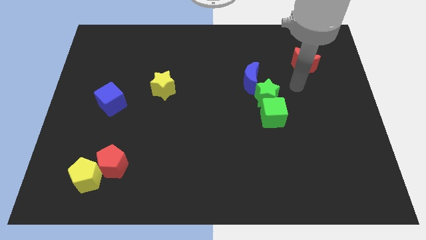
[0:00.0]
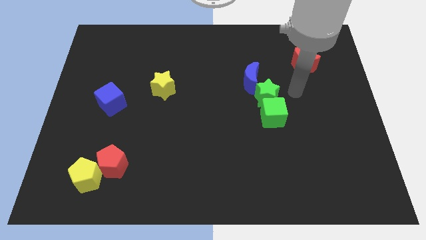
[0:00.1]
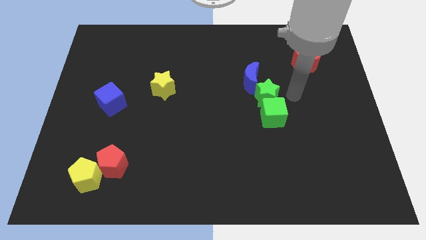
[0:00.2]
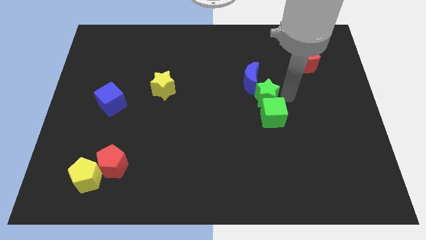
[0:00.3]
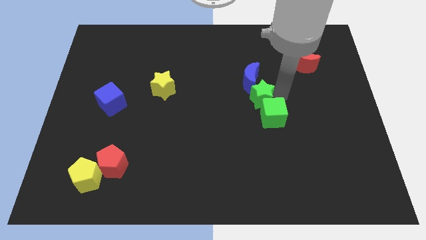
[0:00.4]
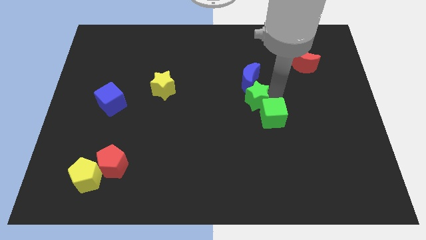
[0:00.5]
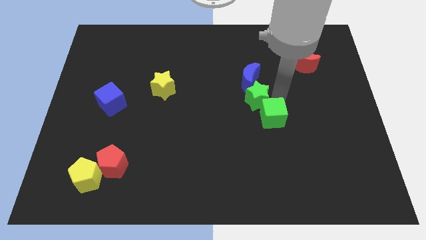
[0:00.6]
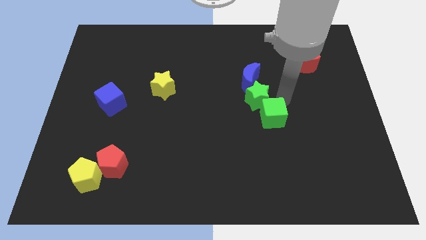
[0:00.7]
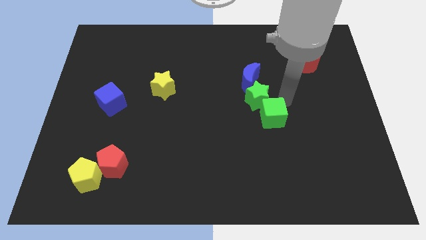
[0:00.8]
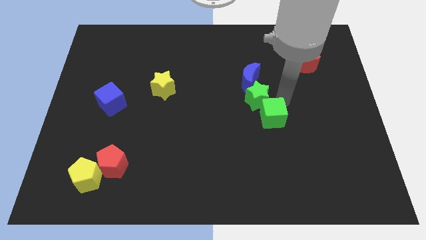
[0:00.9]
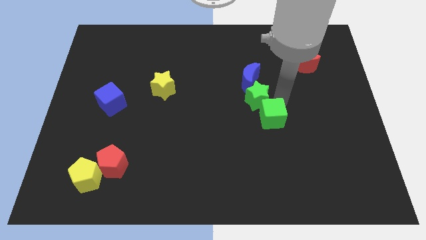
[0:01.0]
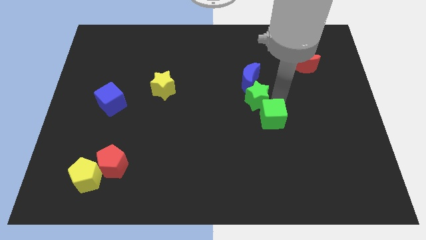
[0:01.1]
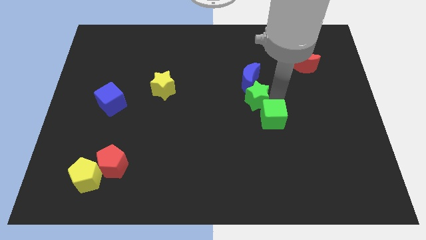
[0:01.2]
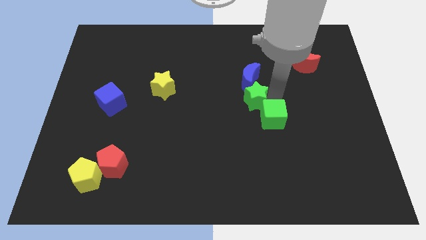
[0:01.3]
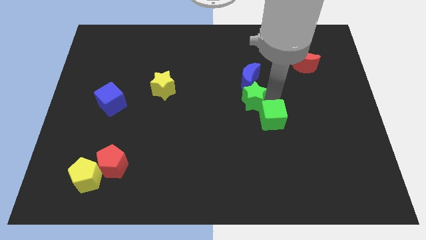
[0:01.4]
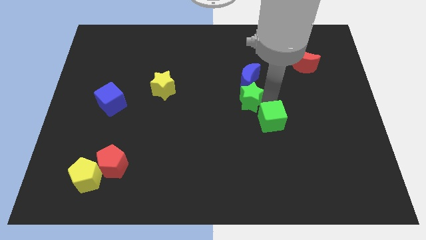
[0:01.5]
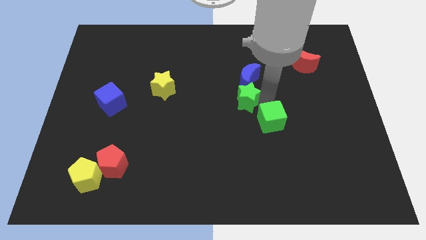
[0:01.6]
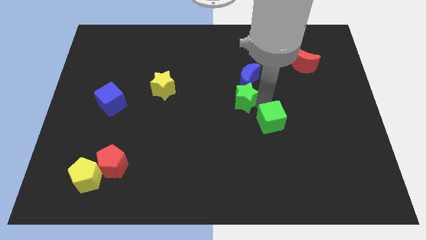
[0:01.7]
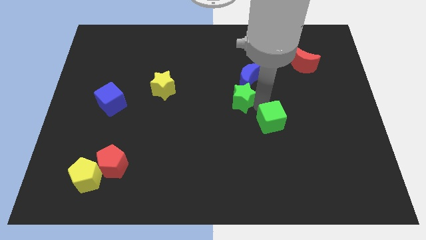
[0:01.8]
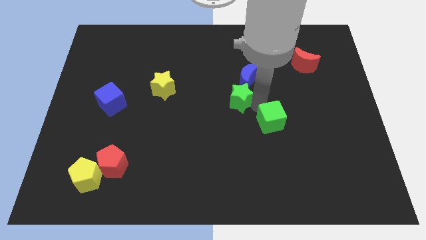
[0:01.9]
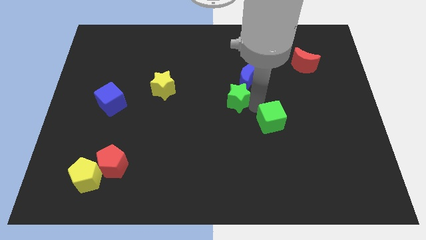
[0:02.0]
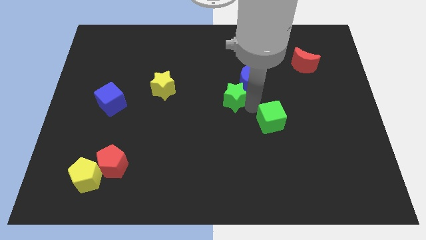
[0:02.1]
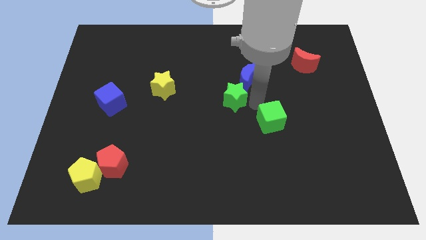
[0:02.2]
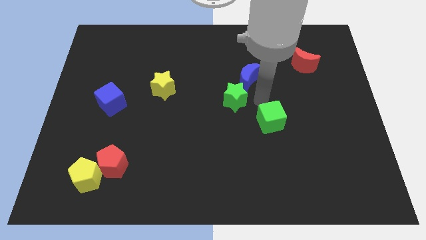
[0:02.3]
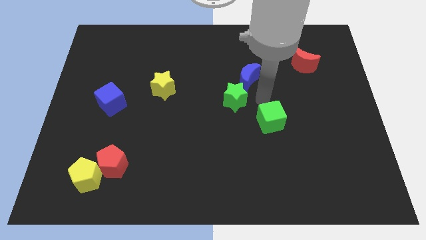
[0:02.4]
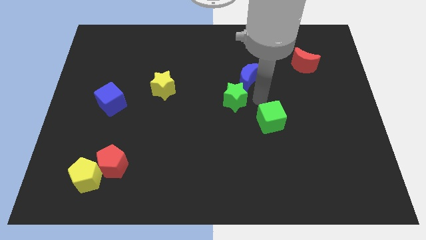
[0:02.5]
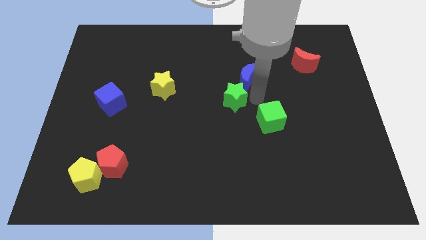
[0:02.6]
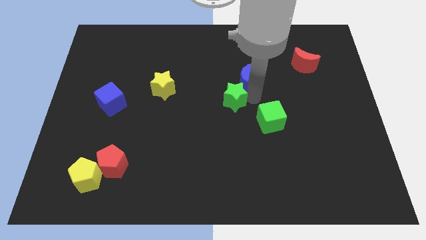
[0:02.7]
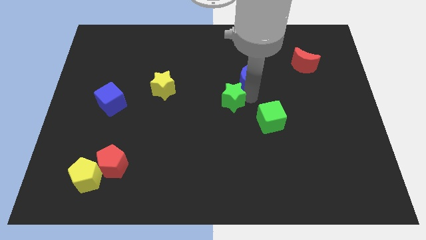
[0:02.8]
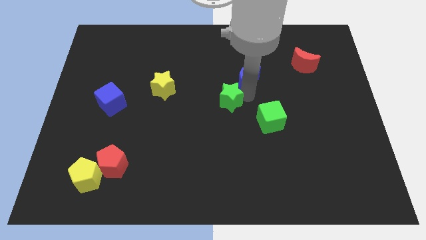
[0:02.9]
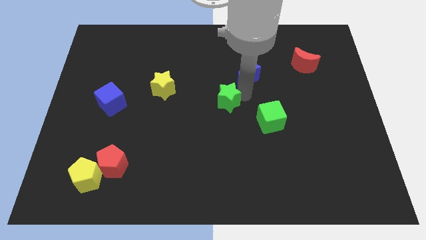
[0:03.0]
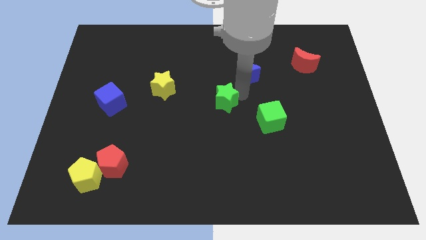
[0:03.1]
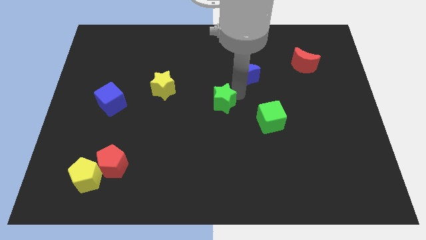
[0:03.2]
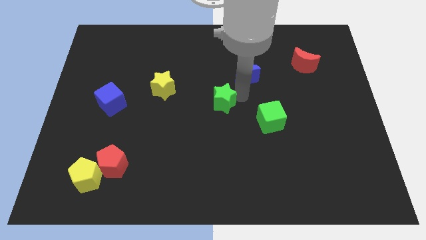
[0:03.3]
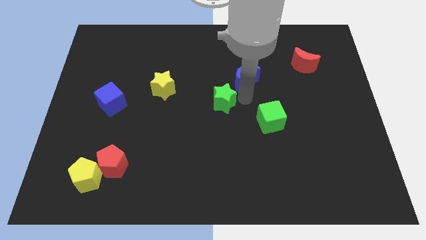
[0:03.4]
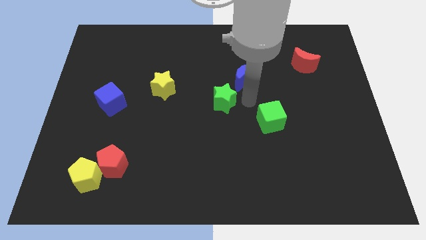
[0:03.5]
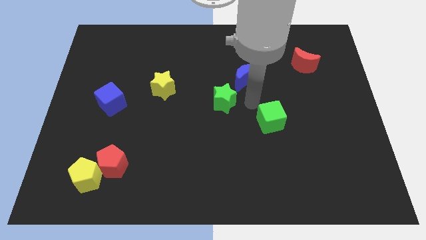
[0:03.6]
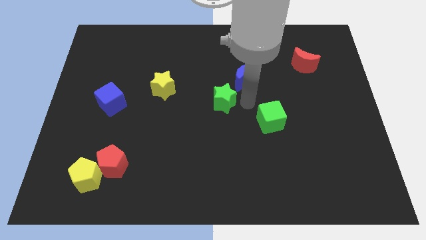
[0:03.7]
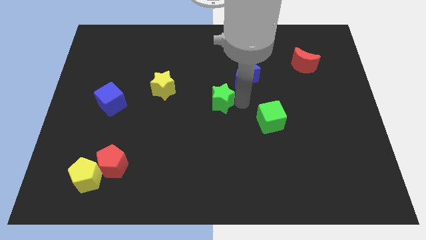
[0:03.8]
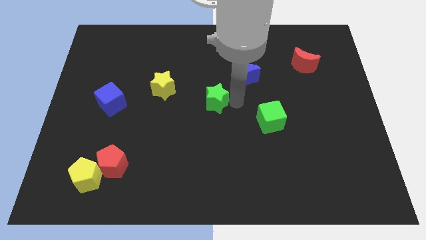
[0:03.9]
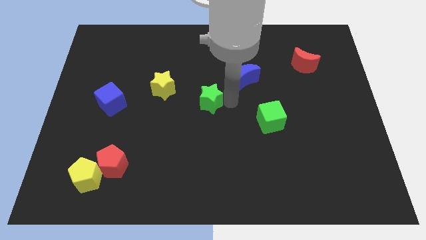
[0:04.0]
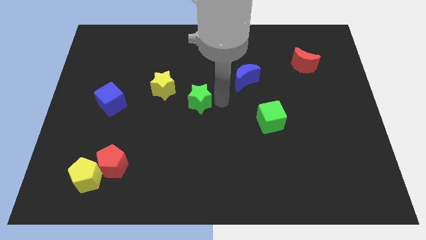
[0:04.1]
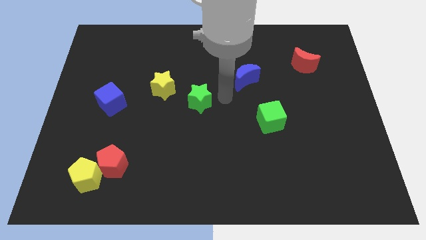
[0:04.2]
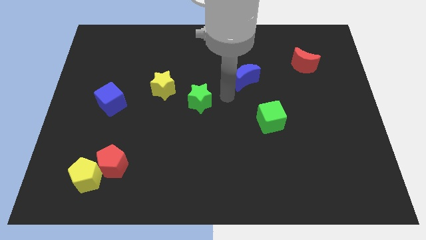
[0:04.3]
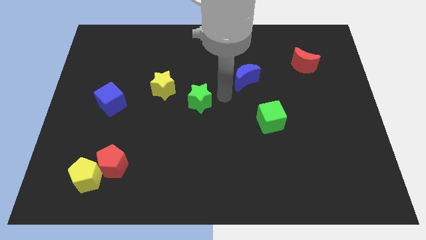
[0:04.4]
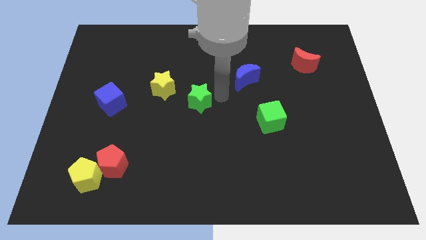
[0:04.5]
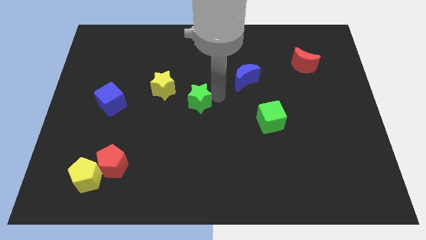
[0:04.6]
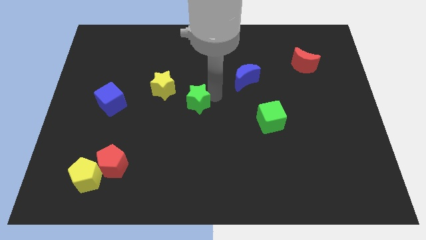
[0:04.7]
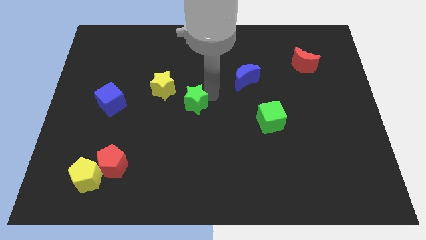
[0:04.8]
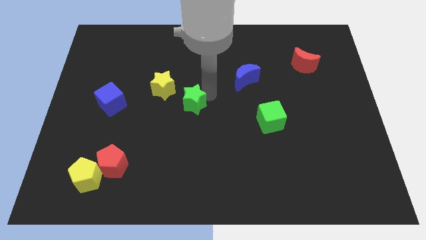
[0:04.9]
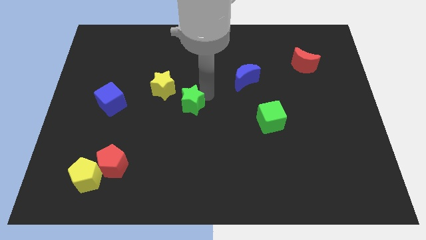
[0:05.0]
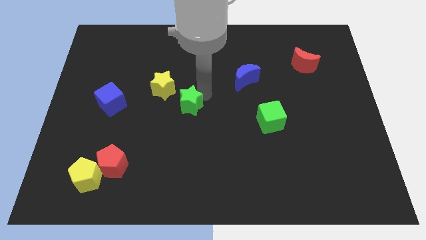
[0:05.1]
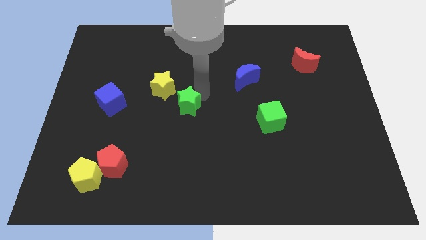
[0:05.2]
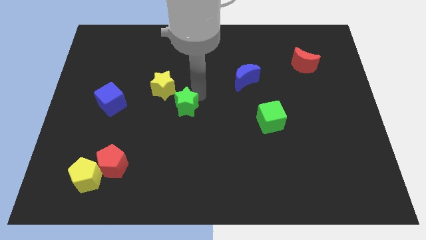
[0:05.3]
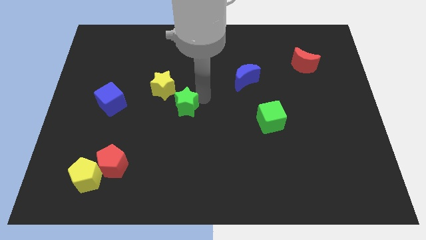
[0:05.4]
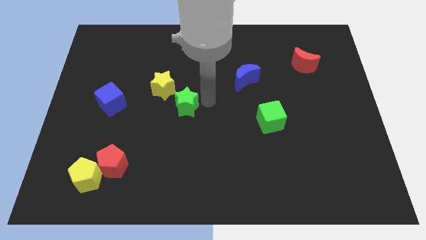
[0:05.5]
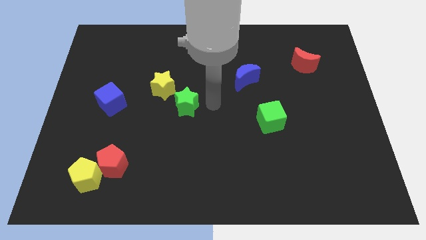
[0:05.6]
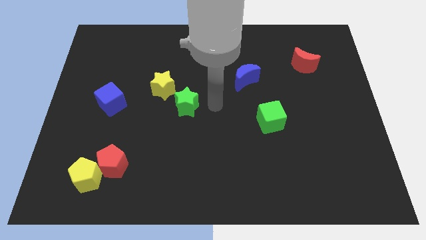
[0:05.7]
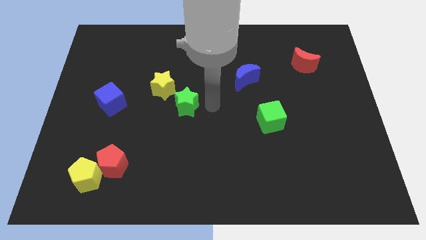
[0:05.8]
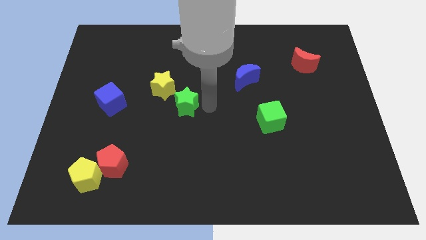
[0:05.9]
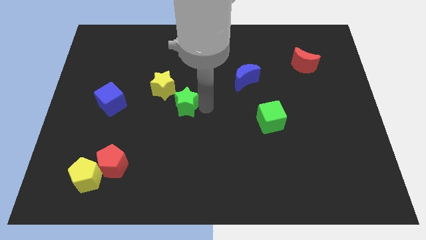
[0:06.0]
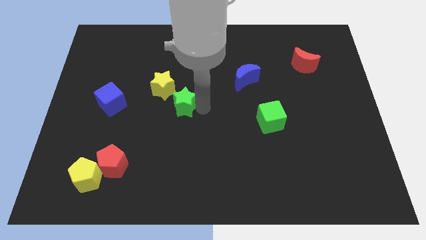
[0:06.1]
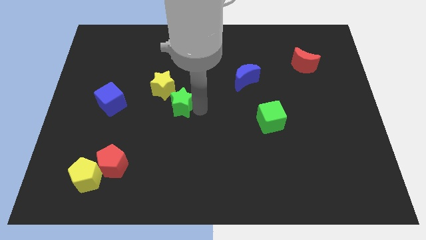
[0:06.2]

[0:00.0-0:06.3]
slide the green star left

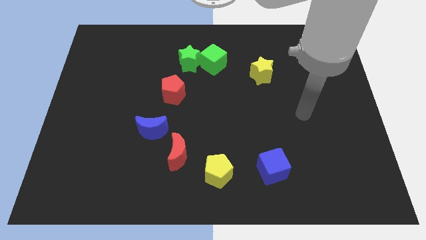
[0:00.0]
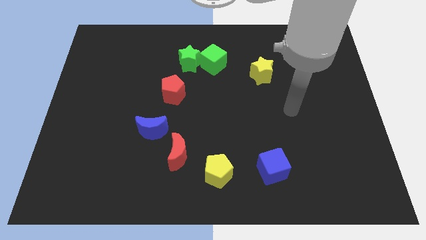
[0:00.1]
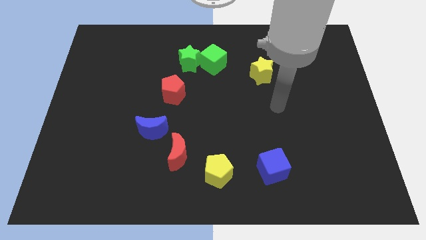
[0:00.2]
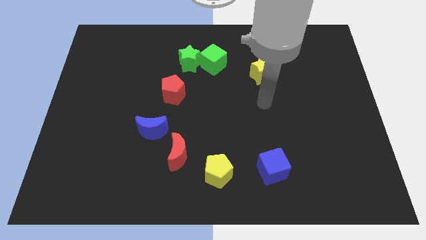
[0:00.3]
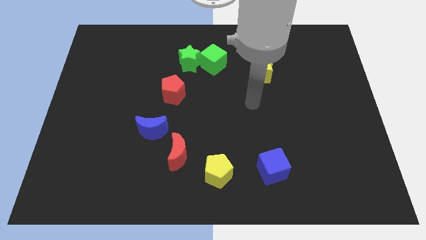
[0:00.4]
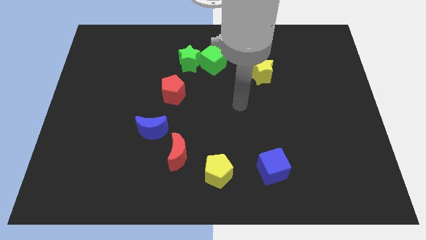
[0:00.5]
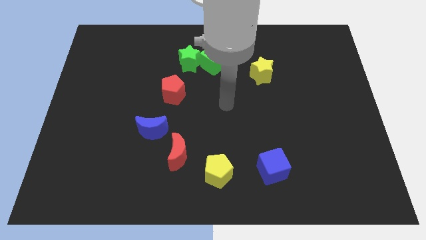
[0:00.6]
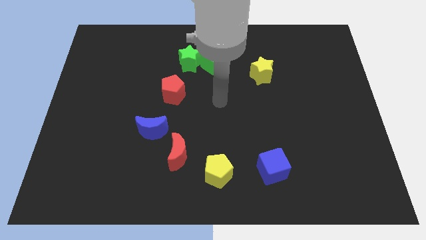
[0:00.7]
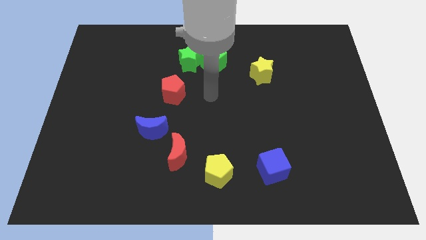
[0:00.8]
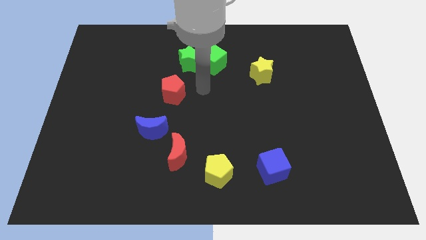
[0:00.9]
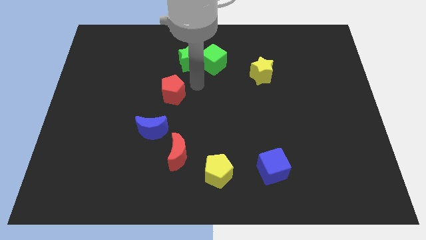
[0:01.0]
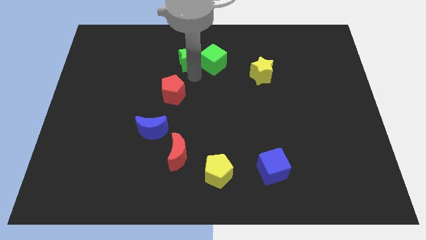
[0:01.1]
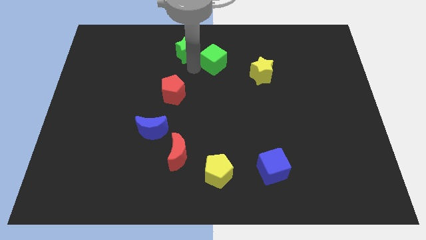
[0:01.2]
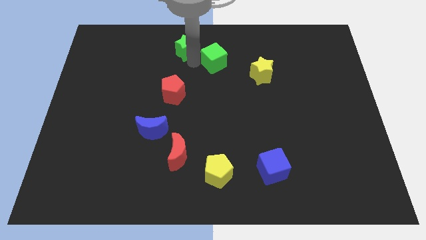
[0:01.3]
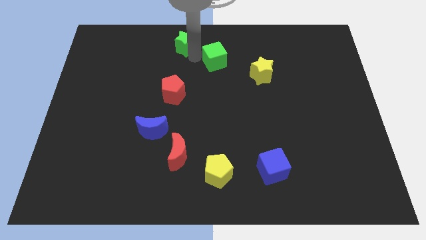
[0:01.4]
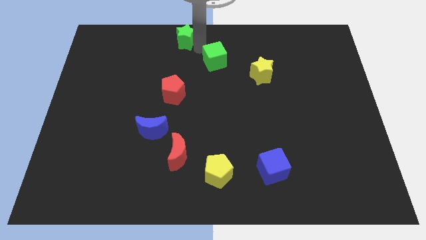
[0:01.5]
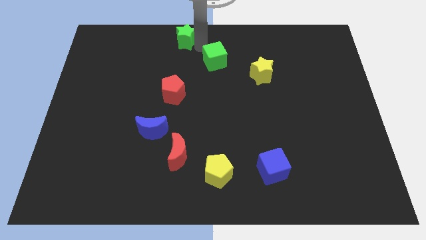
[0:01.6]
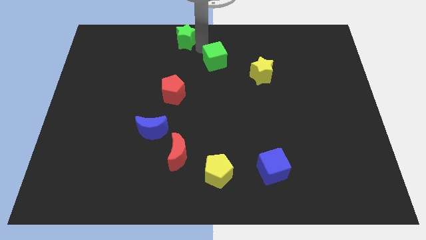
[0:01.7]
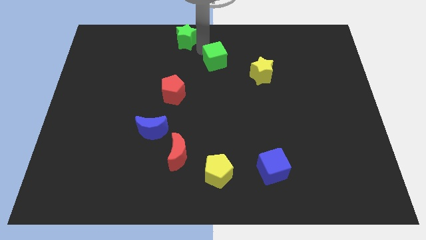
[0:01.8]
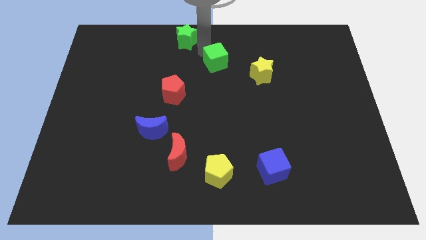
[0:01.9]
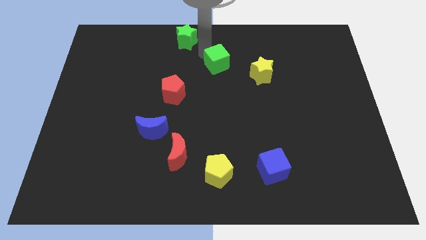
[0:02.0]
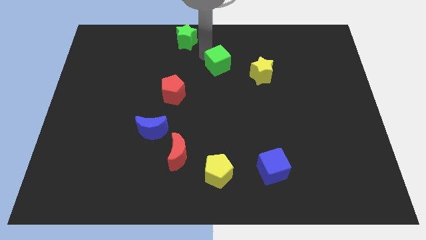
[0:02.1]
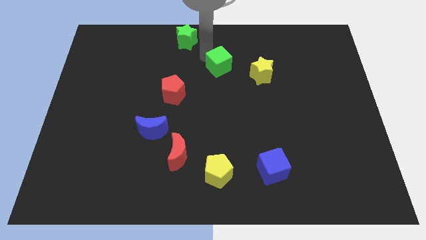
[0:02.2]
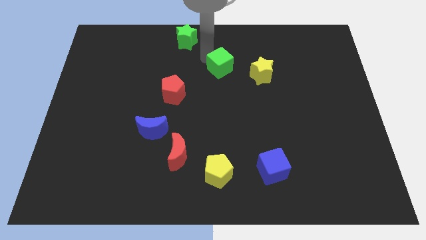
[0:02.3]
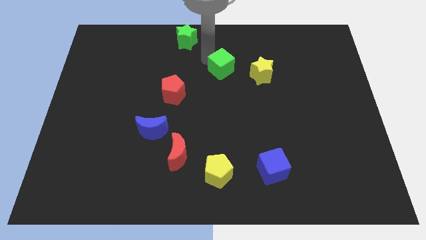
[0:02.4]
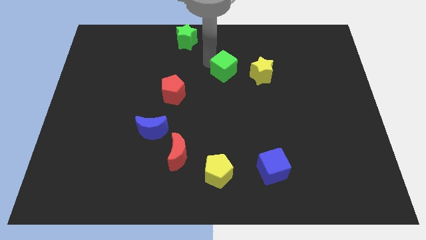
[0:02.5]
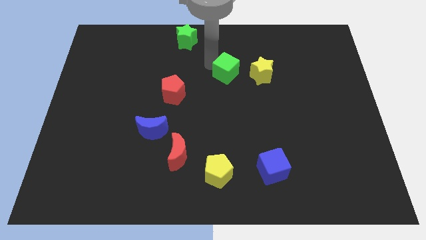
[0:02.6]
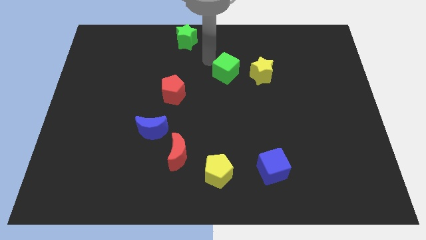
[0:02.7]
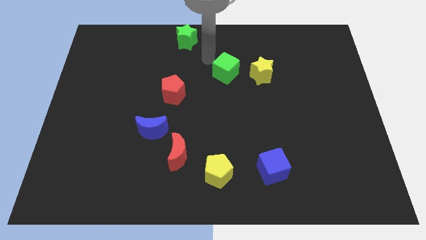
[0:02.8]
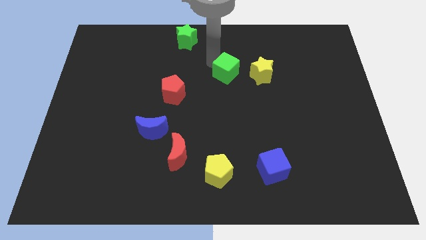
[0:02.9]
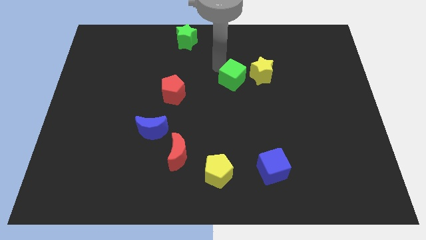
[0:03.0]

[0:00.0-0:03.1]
slightly push the green cube down and to the right diagonally
